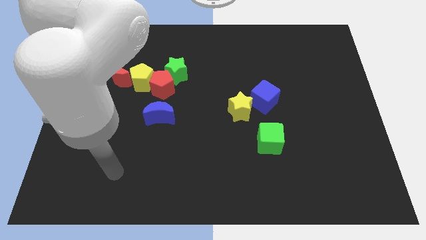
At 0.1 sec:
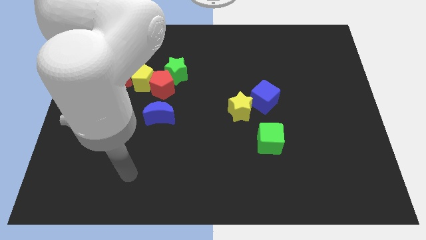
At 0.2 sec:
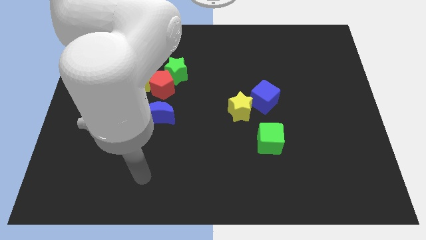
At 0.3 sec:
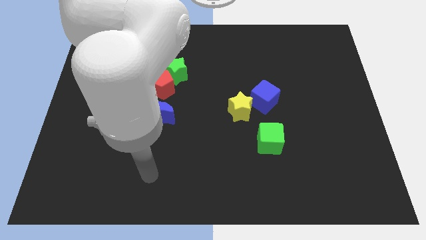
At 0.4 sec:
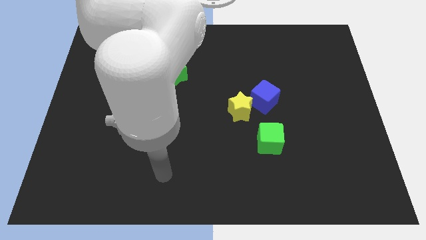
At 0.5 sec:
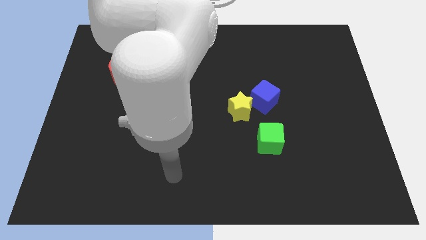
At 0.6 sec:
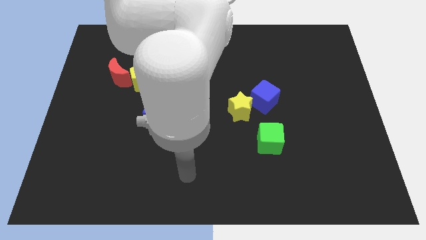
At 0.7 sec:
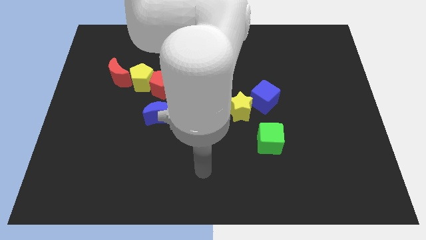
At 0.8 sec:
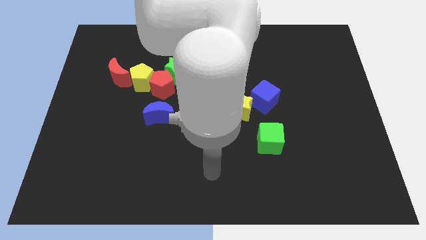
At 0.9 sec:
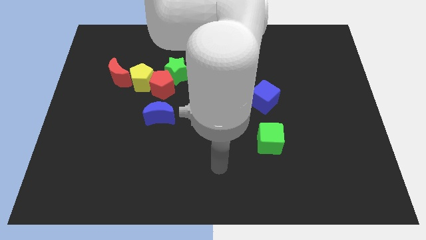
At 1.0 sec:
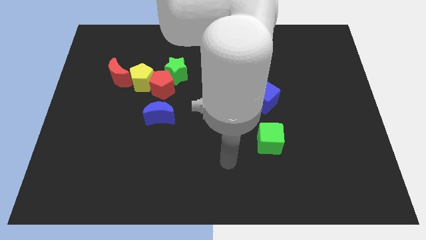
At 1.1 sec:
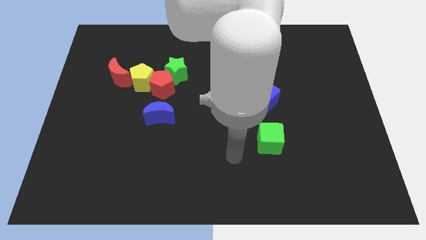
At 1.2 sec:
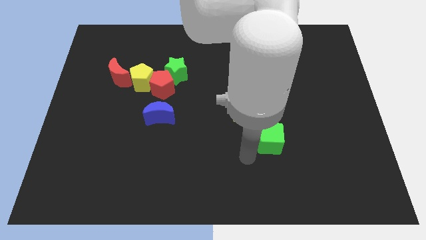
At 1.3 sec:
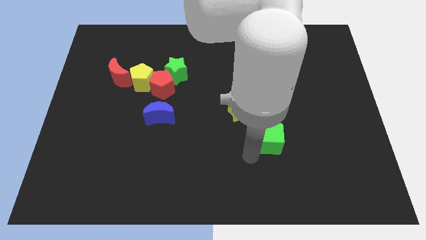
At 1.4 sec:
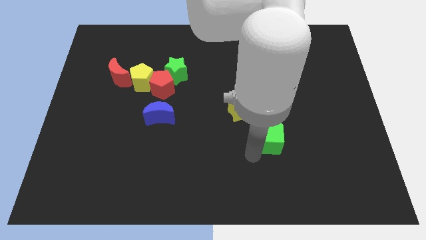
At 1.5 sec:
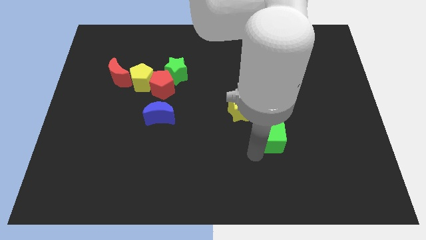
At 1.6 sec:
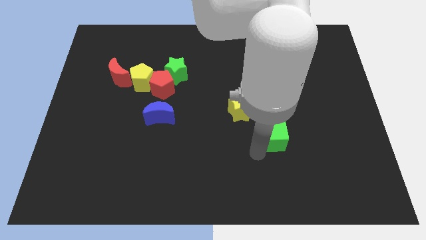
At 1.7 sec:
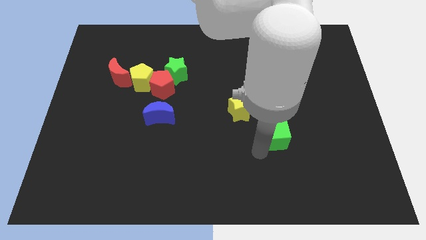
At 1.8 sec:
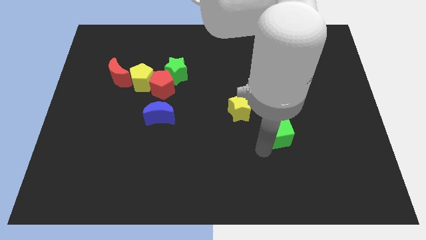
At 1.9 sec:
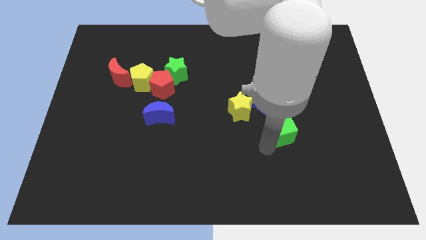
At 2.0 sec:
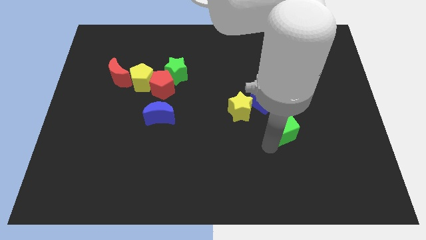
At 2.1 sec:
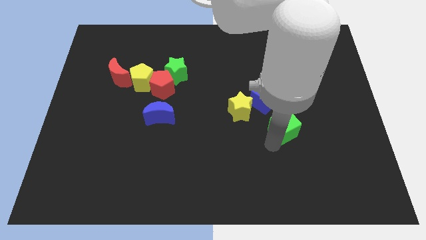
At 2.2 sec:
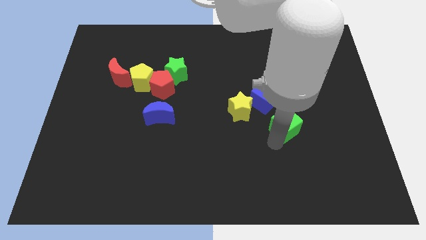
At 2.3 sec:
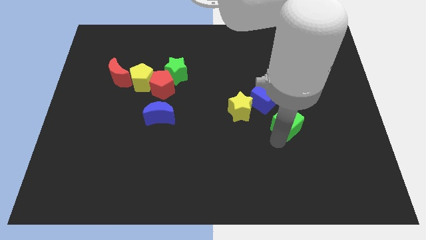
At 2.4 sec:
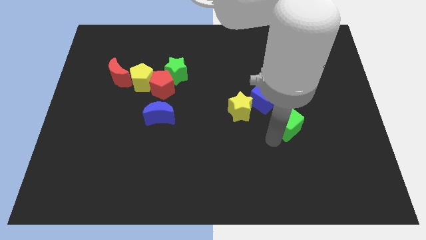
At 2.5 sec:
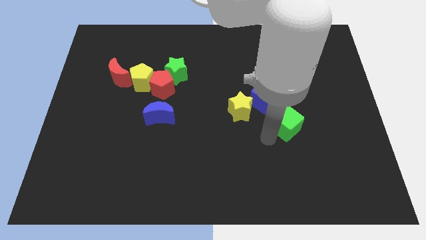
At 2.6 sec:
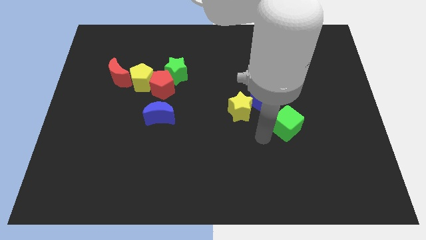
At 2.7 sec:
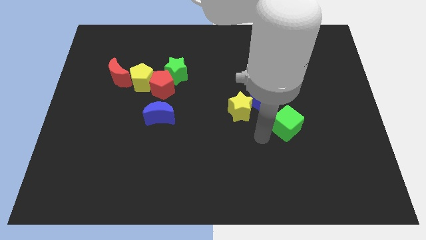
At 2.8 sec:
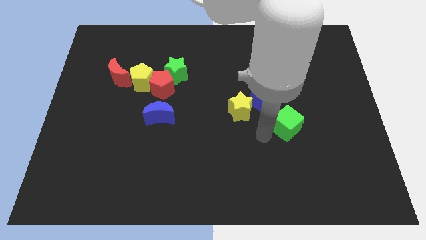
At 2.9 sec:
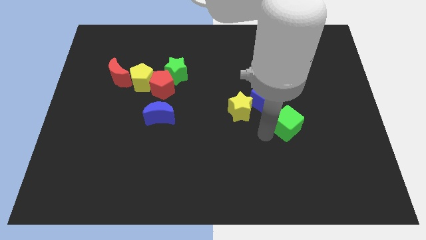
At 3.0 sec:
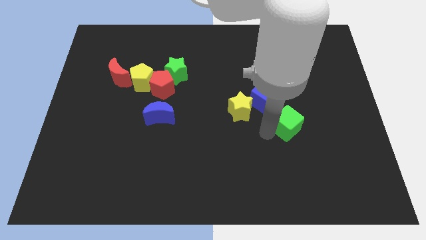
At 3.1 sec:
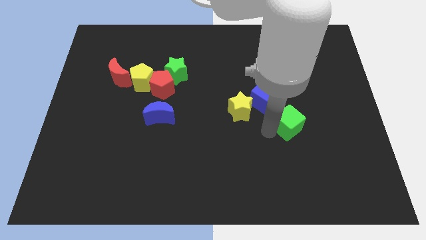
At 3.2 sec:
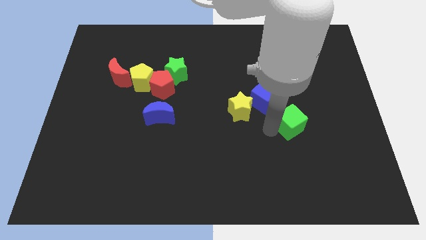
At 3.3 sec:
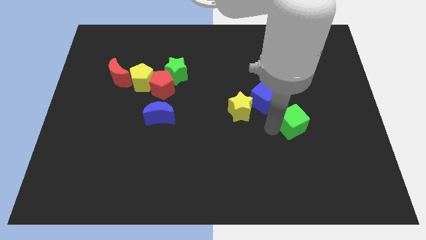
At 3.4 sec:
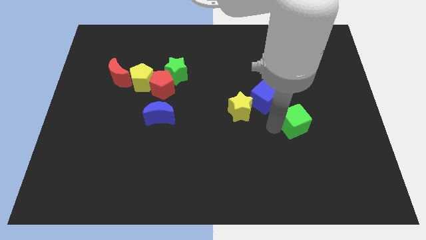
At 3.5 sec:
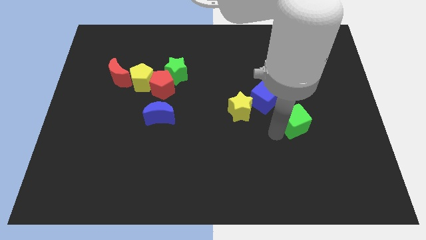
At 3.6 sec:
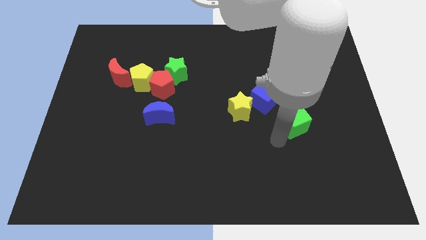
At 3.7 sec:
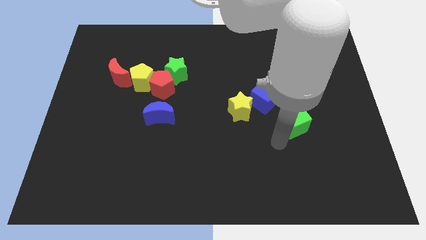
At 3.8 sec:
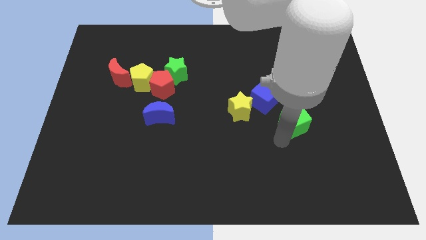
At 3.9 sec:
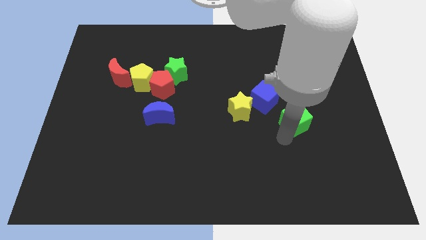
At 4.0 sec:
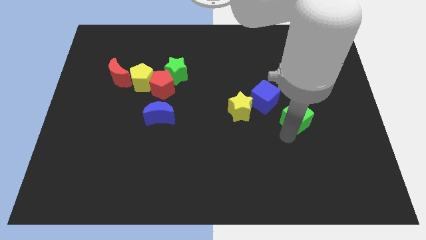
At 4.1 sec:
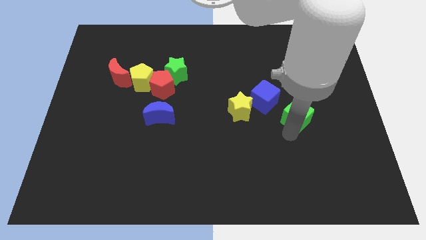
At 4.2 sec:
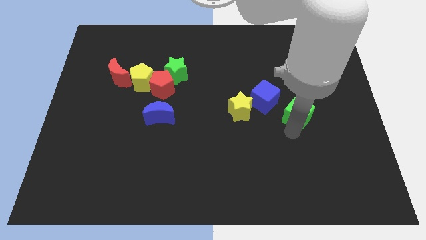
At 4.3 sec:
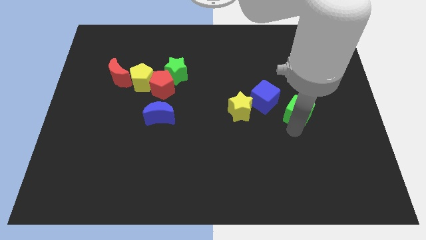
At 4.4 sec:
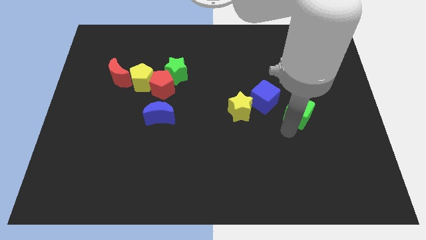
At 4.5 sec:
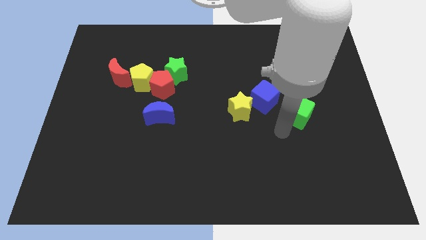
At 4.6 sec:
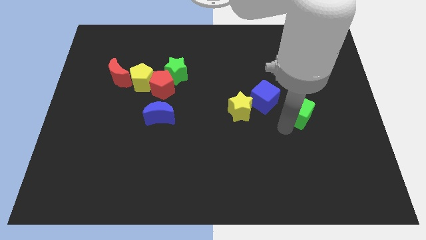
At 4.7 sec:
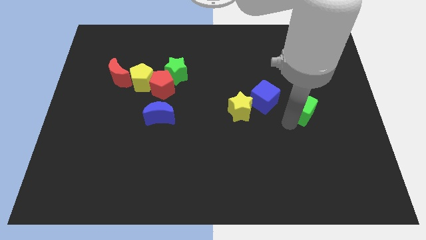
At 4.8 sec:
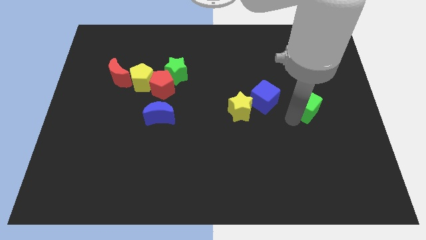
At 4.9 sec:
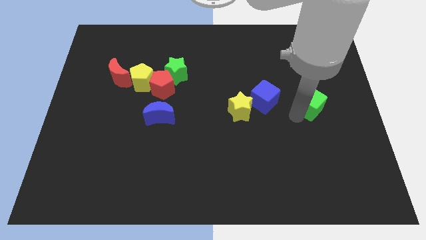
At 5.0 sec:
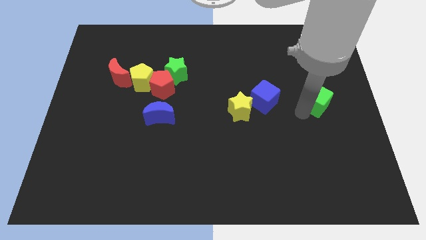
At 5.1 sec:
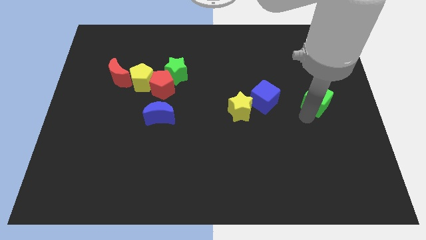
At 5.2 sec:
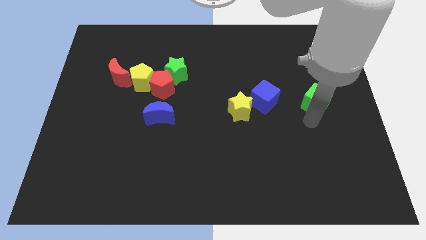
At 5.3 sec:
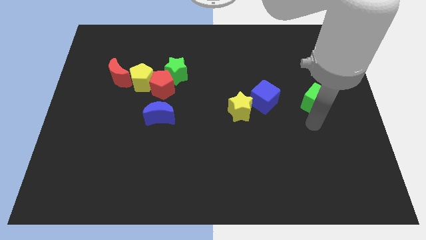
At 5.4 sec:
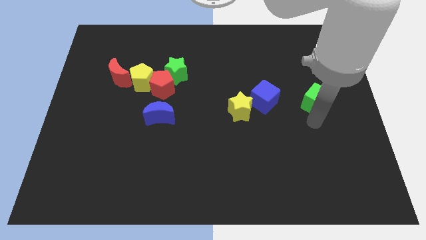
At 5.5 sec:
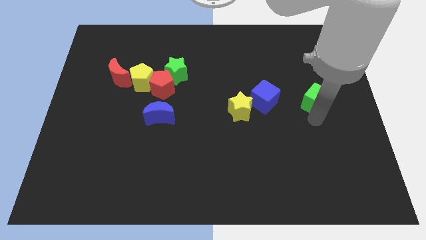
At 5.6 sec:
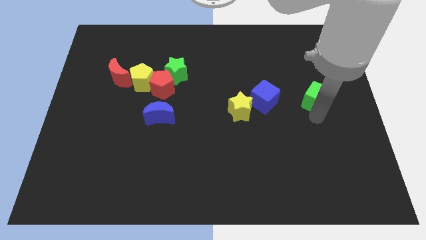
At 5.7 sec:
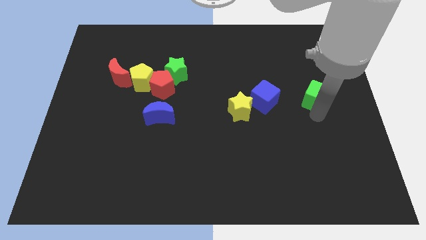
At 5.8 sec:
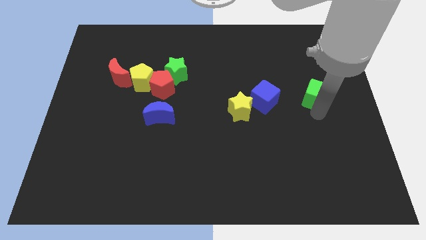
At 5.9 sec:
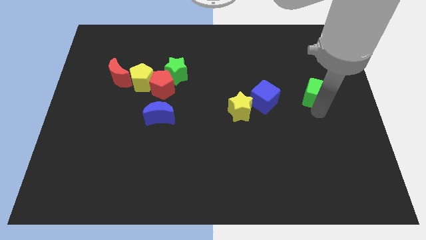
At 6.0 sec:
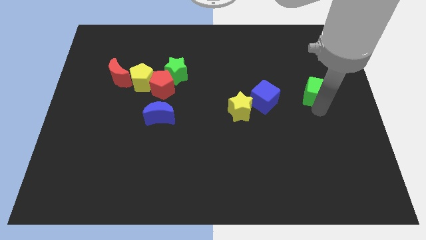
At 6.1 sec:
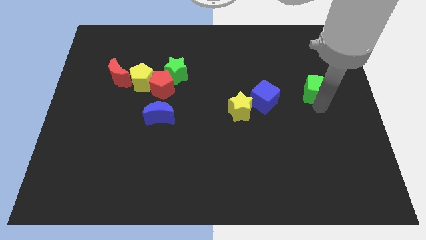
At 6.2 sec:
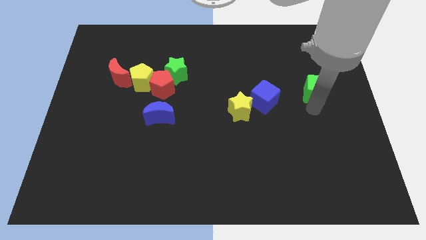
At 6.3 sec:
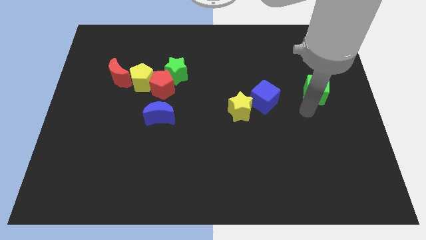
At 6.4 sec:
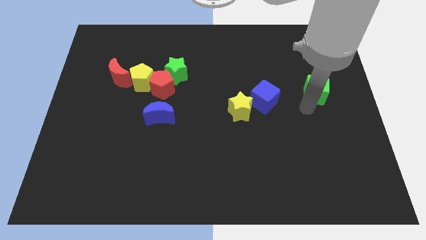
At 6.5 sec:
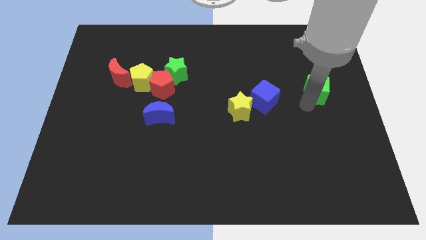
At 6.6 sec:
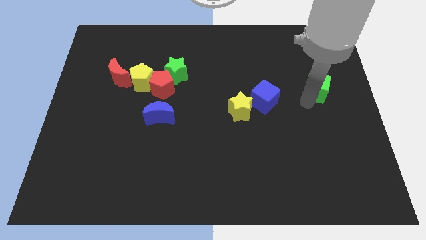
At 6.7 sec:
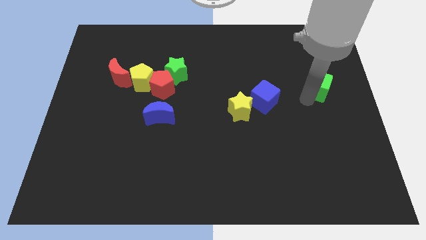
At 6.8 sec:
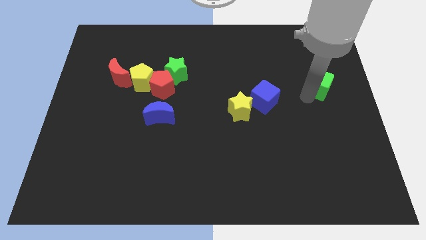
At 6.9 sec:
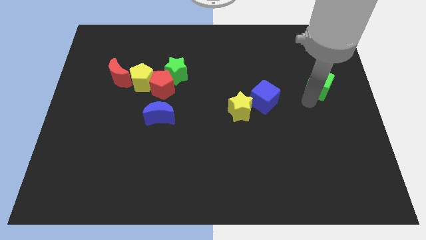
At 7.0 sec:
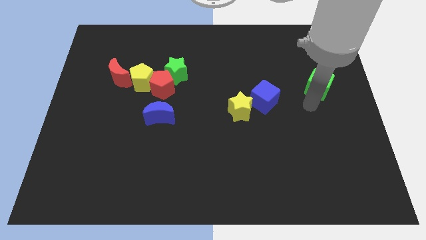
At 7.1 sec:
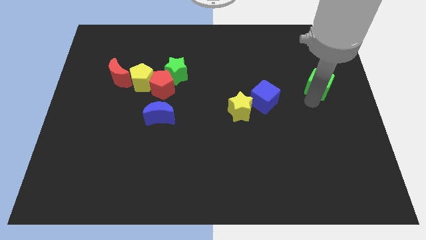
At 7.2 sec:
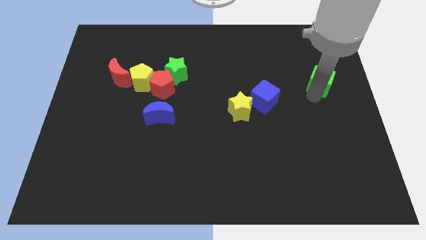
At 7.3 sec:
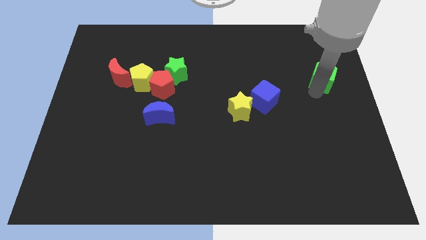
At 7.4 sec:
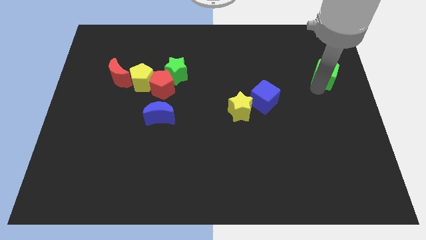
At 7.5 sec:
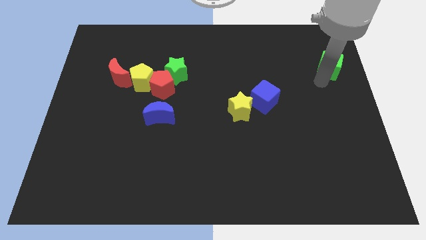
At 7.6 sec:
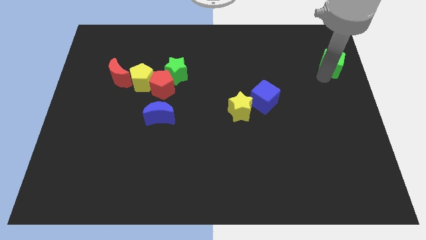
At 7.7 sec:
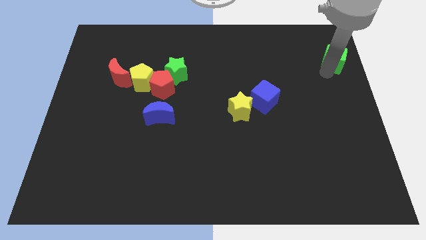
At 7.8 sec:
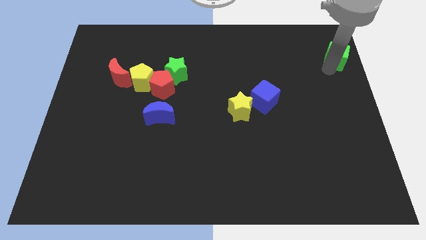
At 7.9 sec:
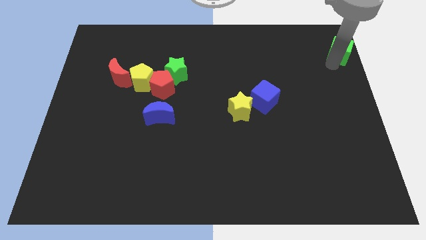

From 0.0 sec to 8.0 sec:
slide the green cube to the top right corner
